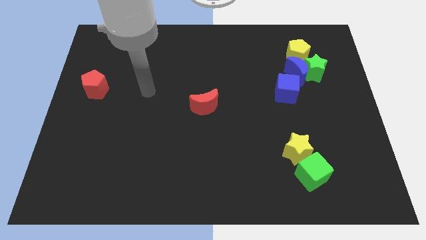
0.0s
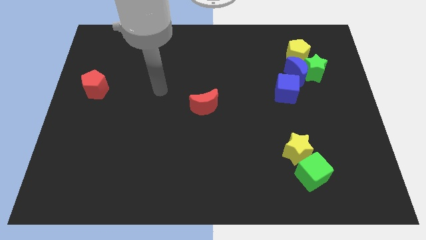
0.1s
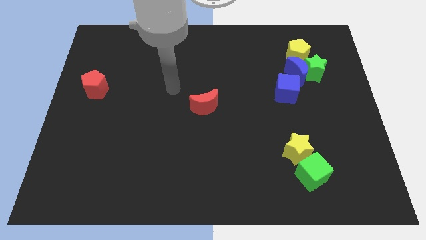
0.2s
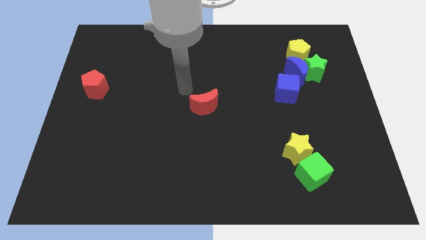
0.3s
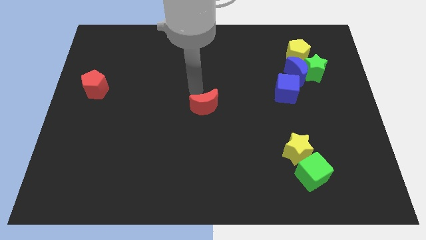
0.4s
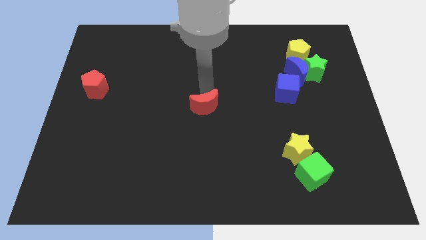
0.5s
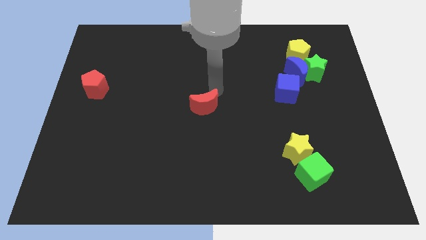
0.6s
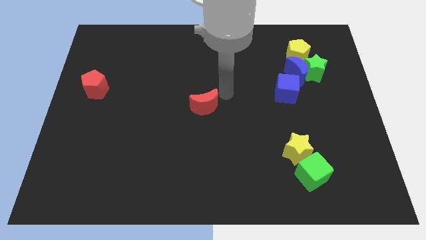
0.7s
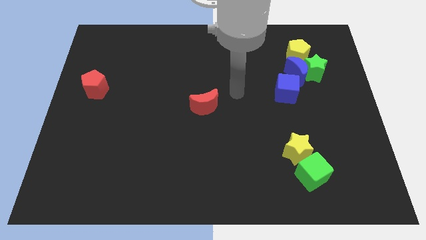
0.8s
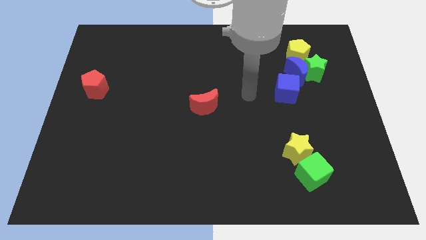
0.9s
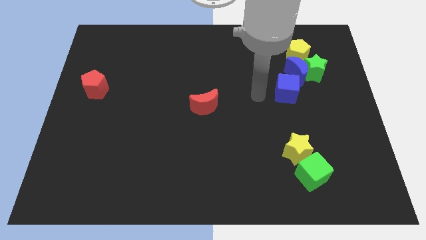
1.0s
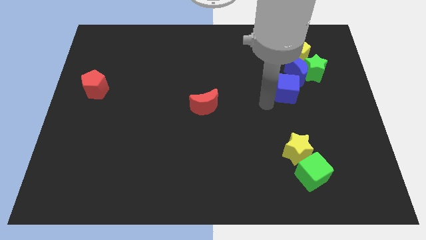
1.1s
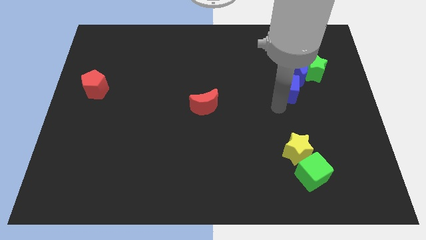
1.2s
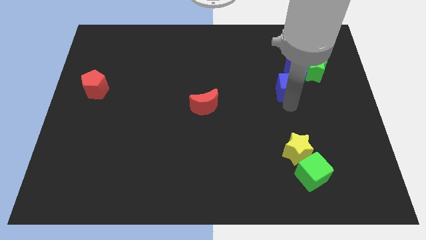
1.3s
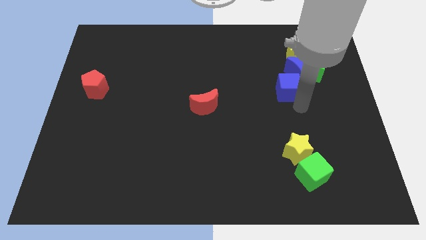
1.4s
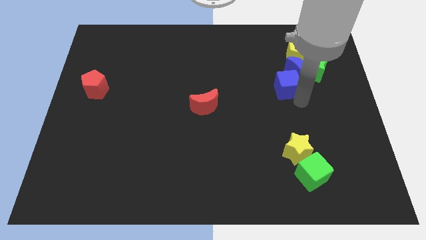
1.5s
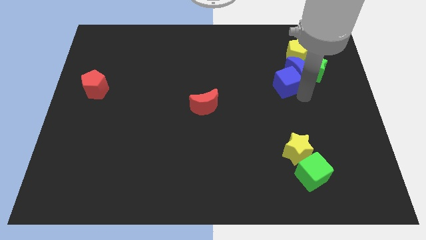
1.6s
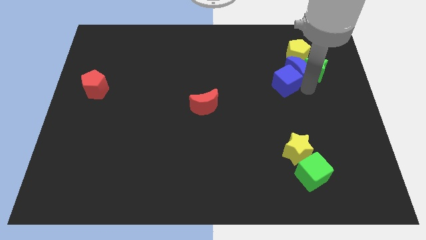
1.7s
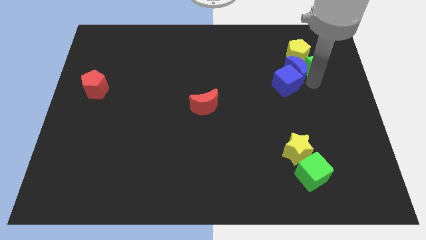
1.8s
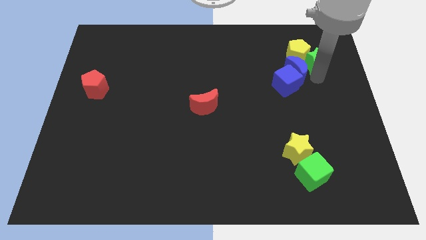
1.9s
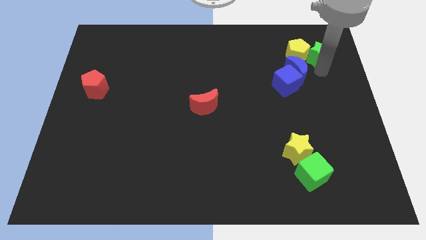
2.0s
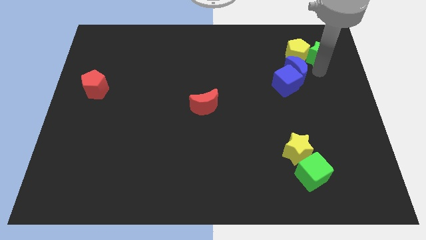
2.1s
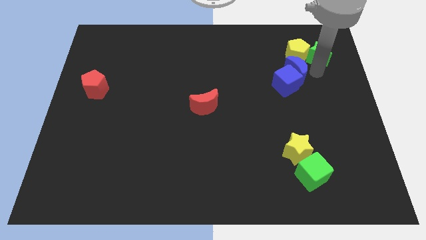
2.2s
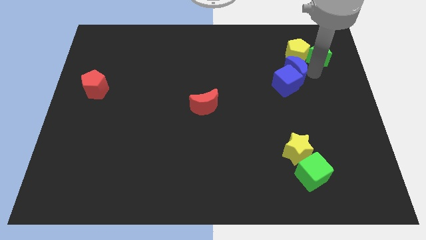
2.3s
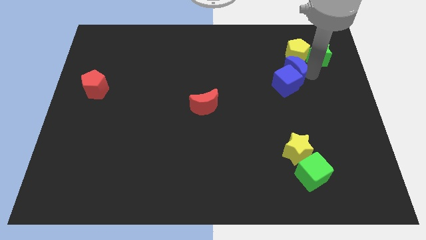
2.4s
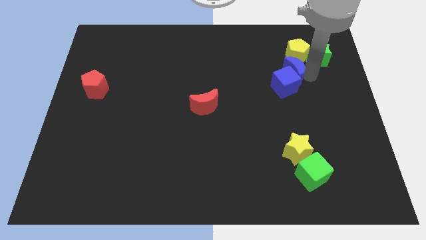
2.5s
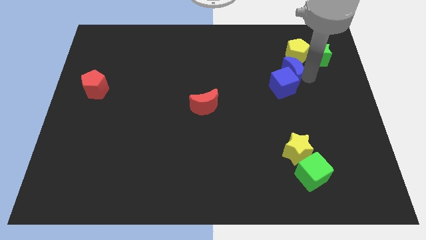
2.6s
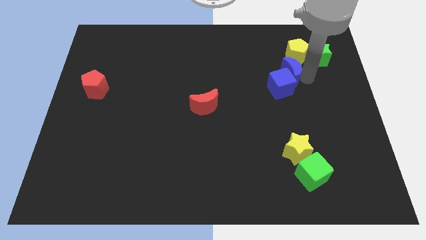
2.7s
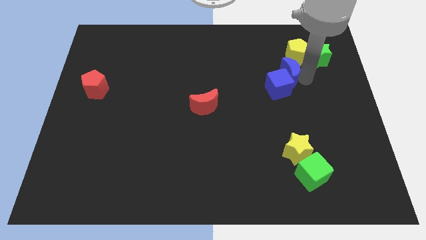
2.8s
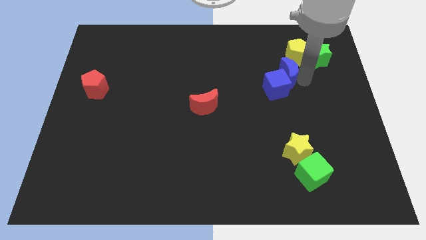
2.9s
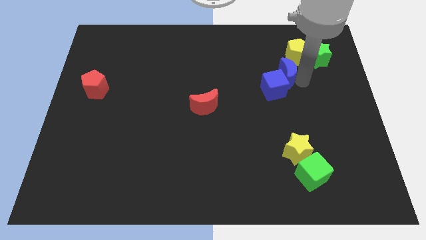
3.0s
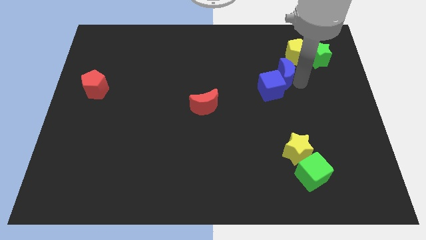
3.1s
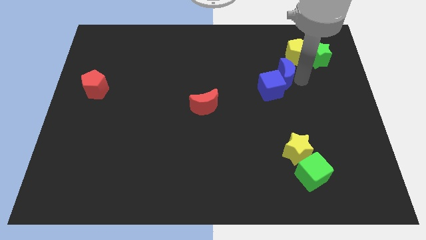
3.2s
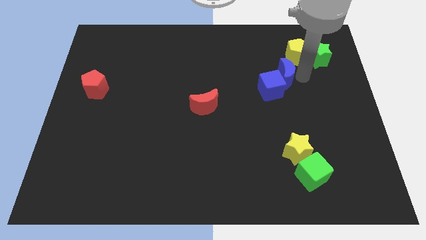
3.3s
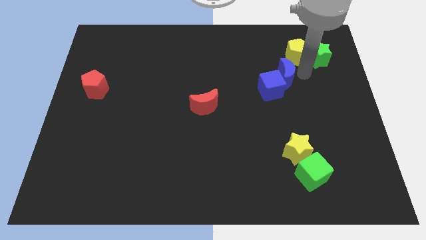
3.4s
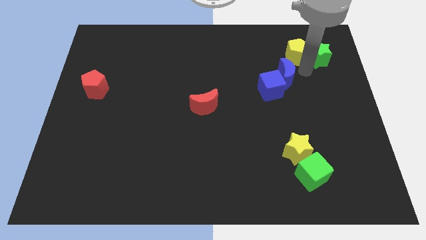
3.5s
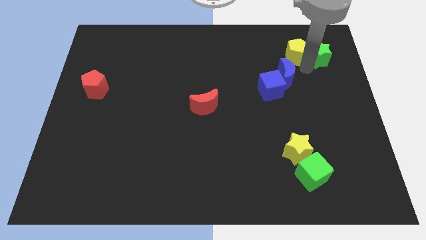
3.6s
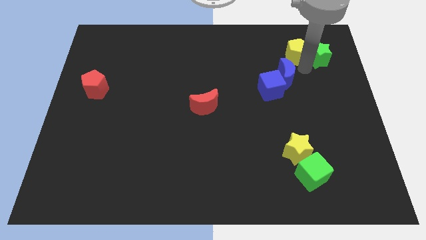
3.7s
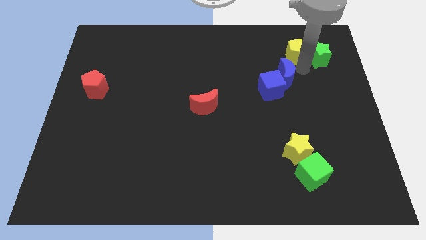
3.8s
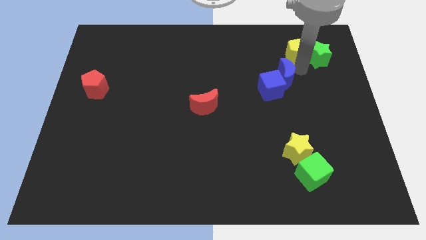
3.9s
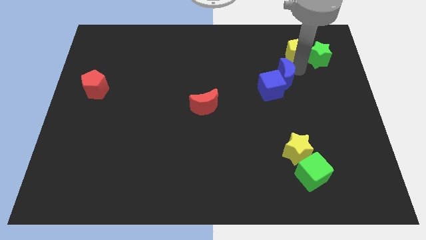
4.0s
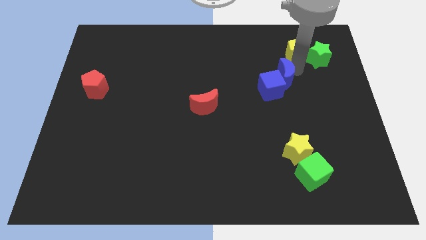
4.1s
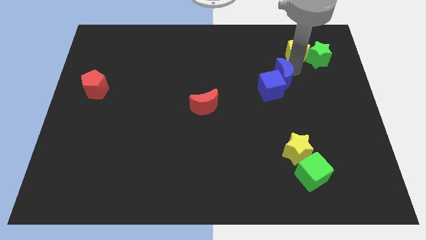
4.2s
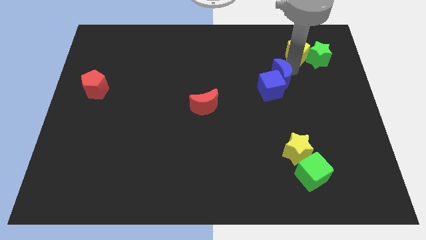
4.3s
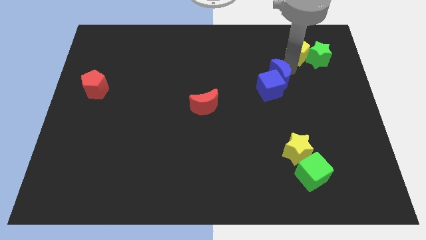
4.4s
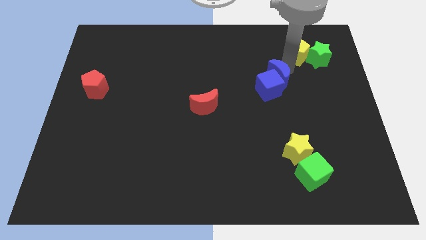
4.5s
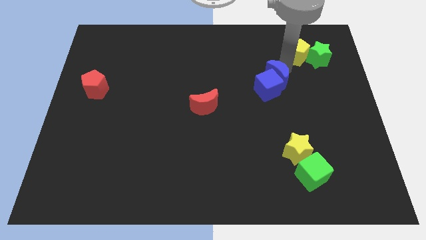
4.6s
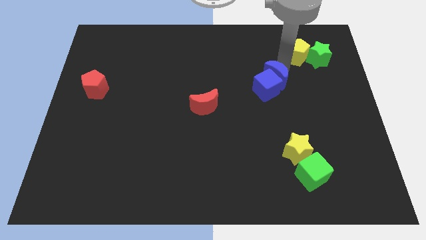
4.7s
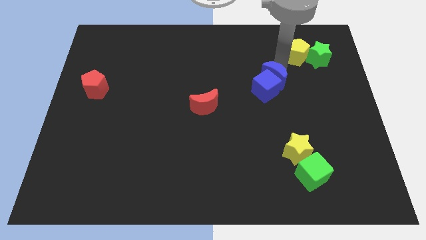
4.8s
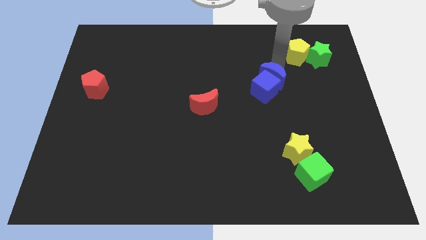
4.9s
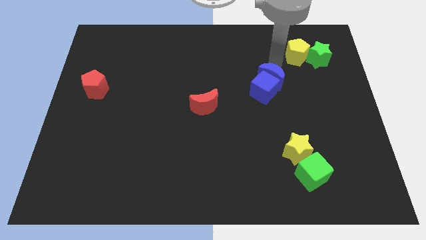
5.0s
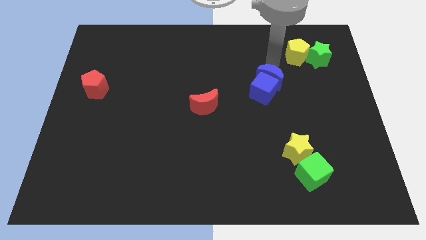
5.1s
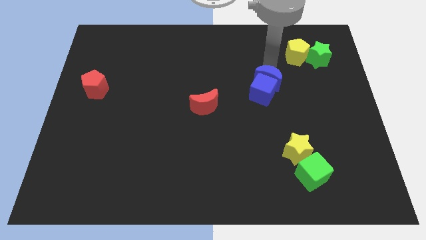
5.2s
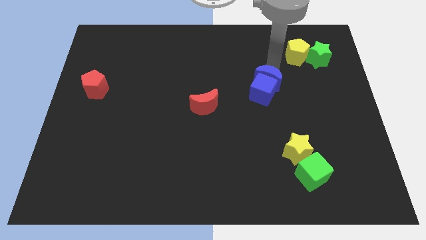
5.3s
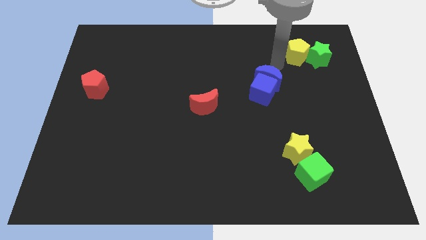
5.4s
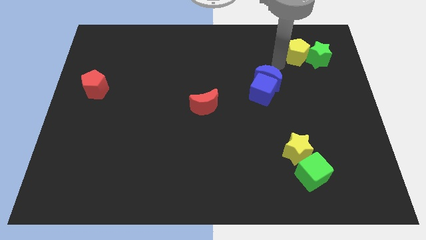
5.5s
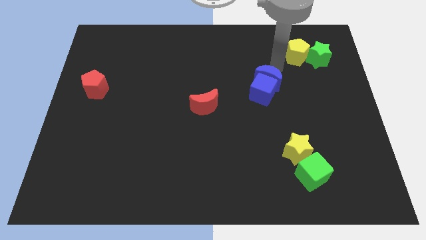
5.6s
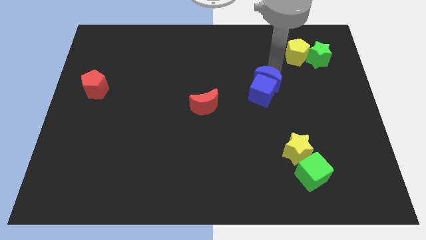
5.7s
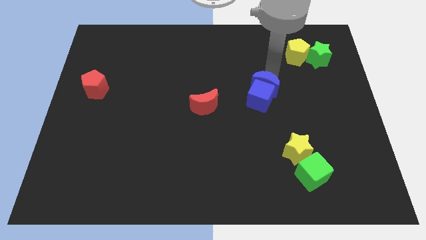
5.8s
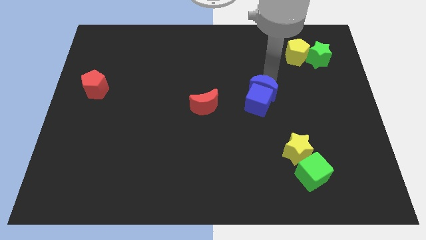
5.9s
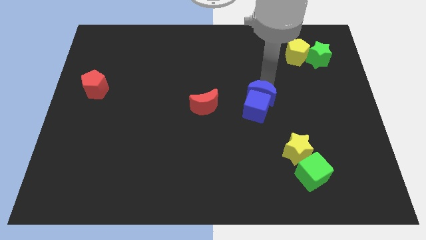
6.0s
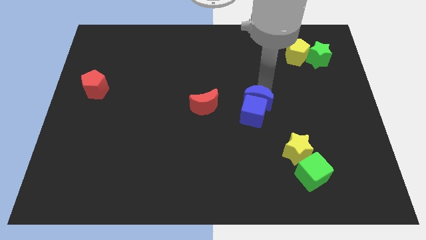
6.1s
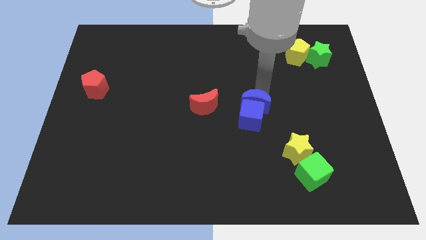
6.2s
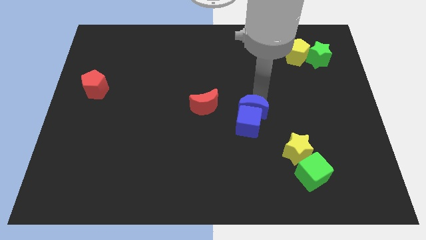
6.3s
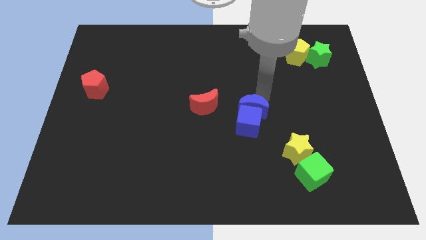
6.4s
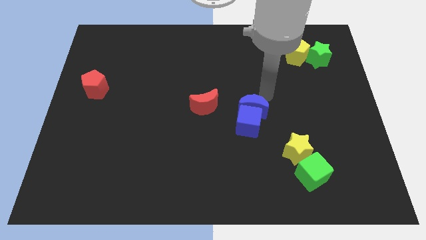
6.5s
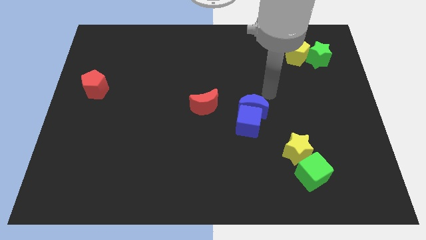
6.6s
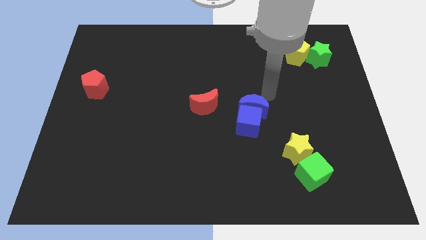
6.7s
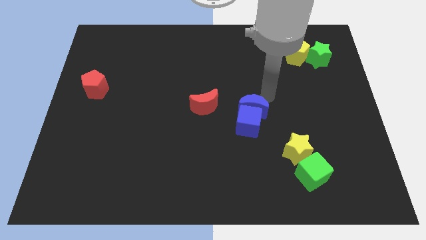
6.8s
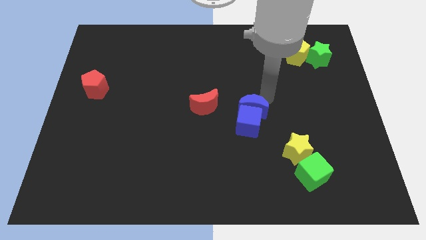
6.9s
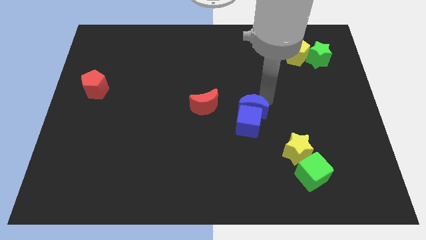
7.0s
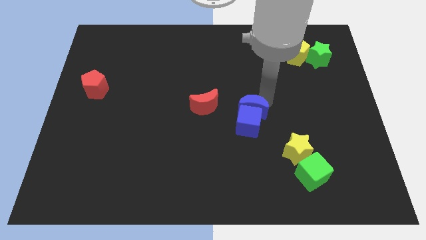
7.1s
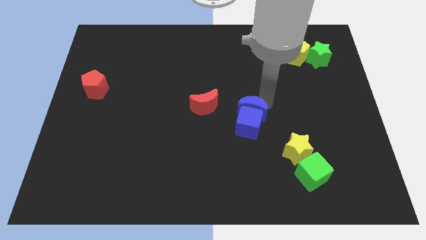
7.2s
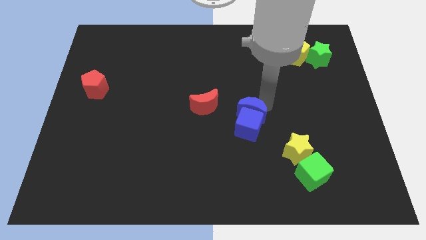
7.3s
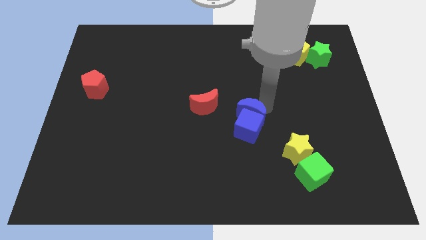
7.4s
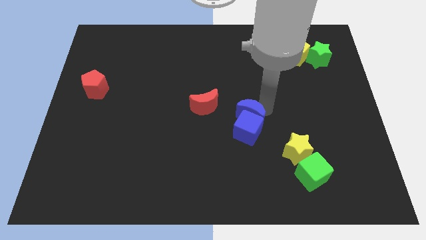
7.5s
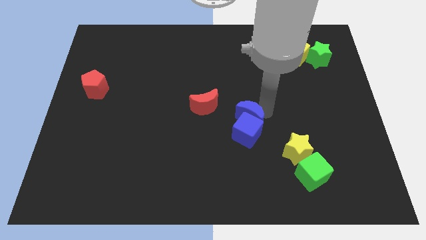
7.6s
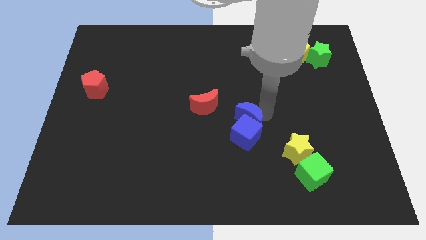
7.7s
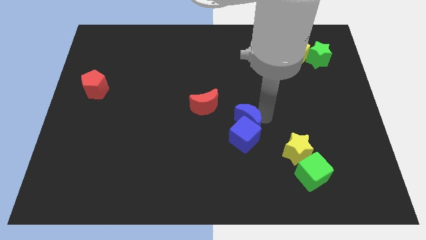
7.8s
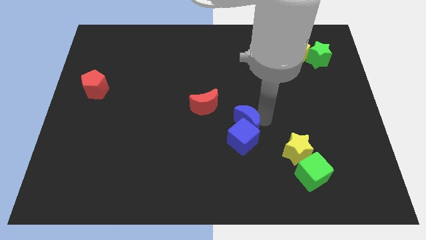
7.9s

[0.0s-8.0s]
push the blue moon down and then left
